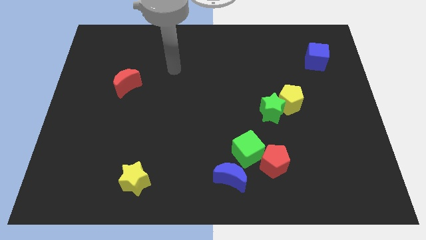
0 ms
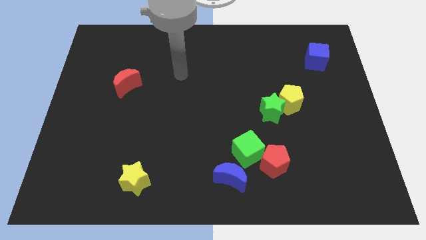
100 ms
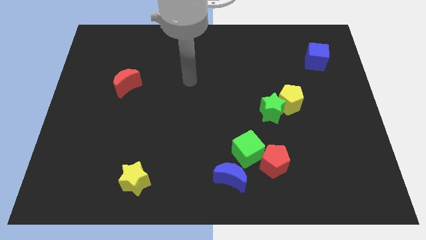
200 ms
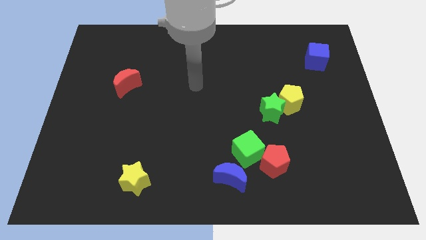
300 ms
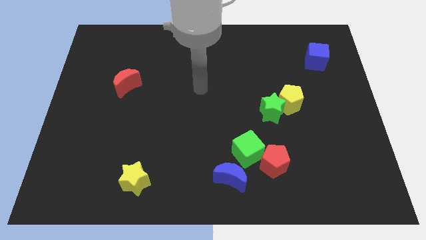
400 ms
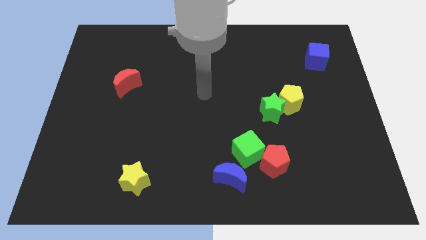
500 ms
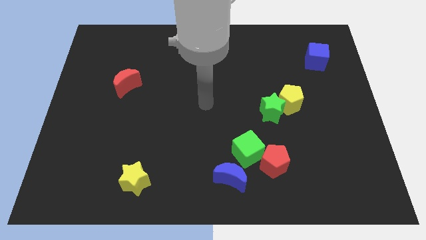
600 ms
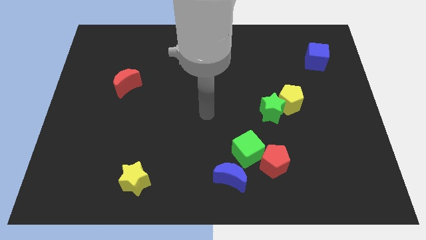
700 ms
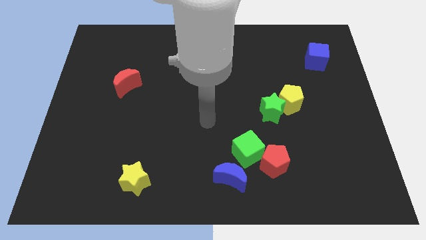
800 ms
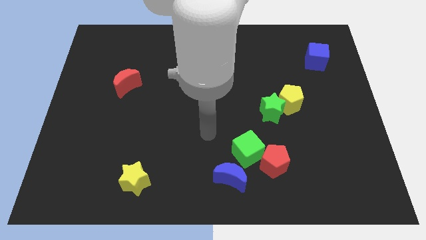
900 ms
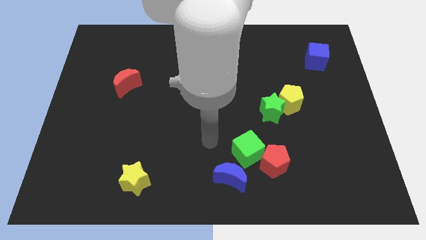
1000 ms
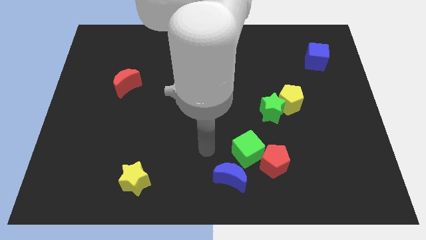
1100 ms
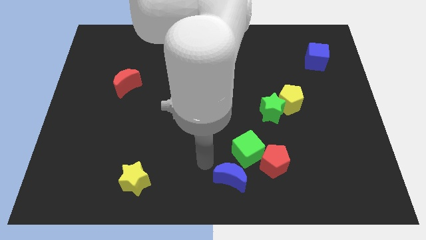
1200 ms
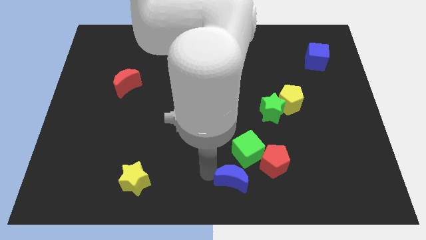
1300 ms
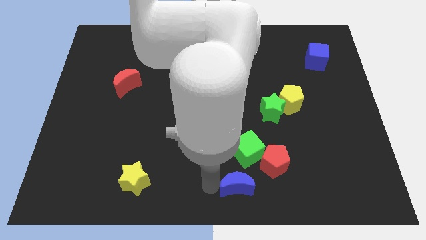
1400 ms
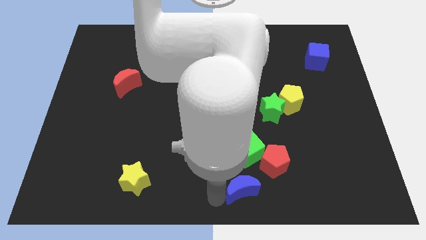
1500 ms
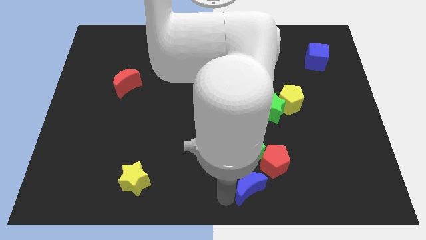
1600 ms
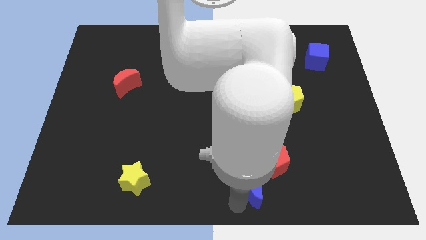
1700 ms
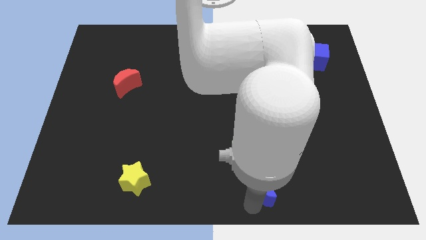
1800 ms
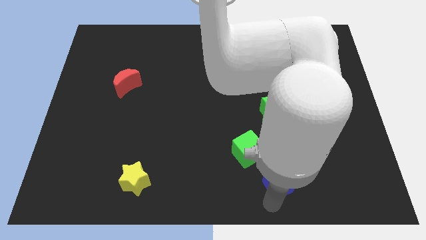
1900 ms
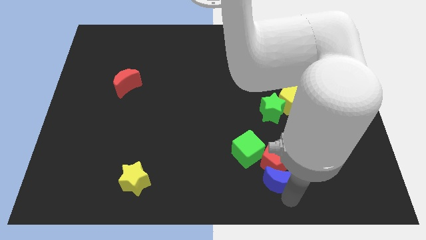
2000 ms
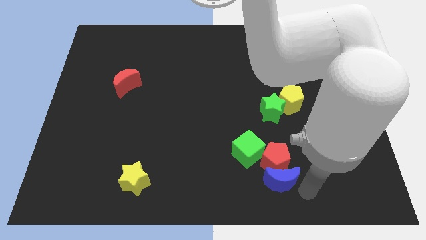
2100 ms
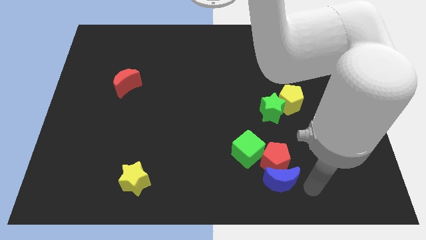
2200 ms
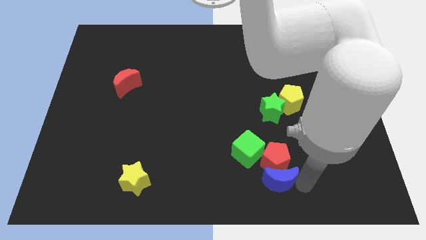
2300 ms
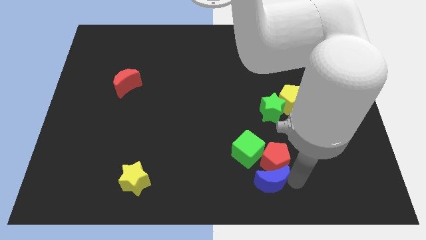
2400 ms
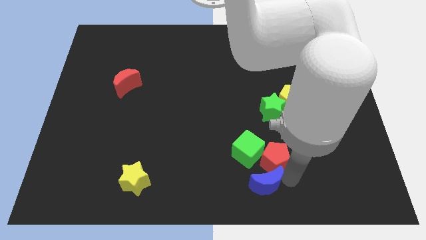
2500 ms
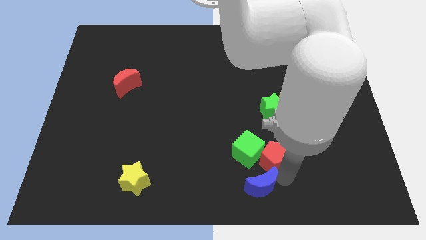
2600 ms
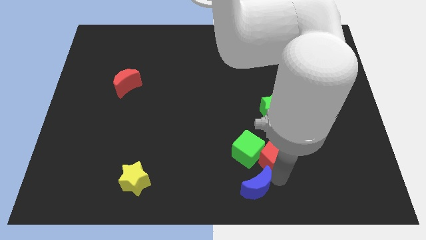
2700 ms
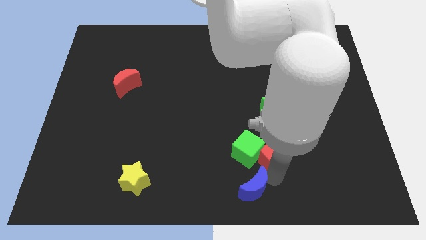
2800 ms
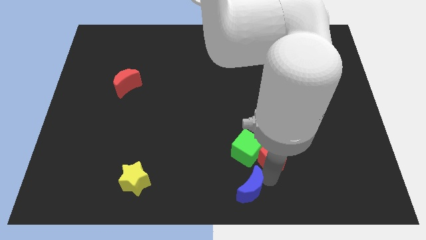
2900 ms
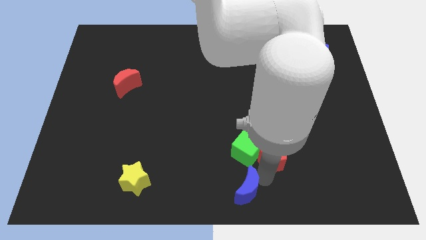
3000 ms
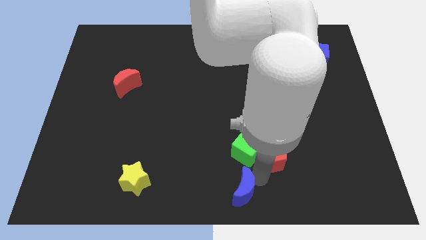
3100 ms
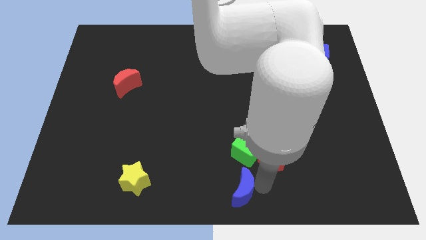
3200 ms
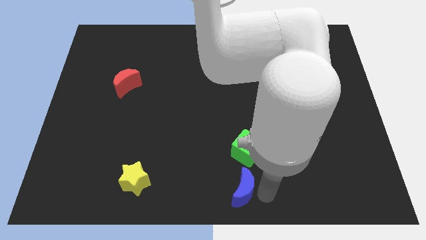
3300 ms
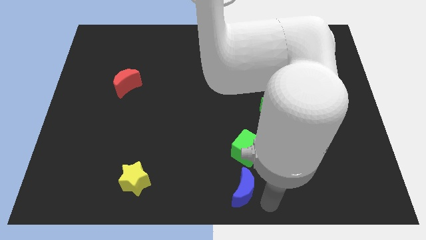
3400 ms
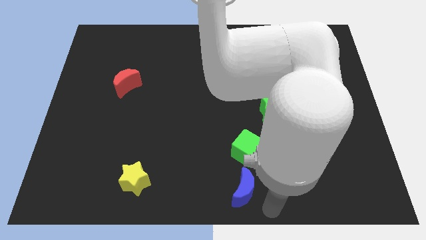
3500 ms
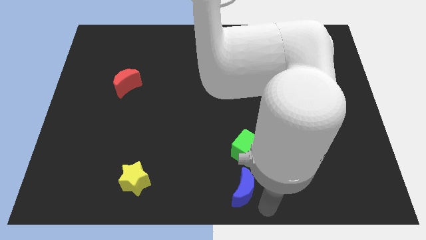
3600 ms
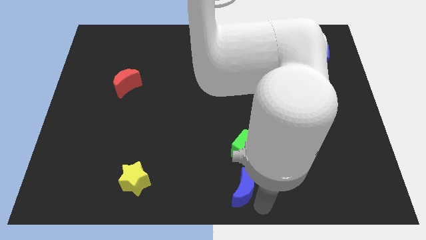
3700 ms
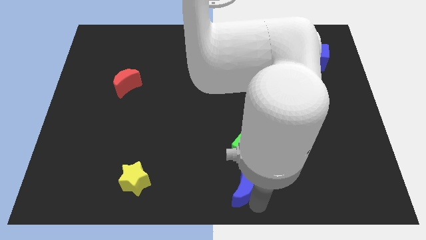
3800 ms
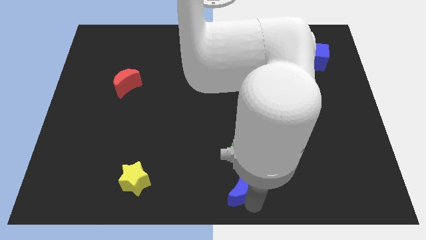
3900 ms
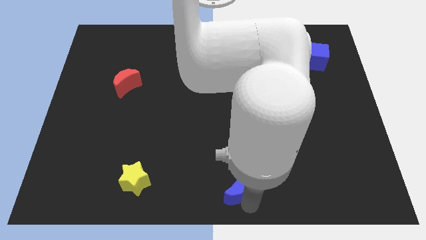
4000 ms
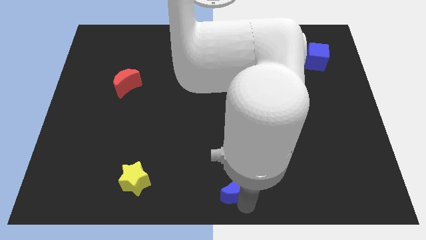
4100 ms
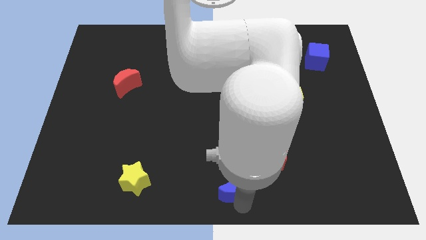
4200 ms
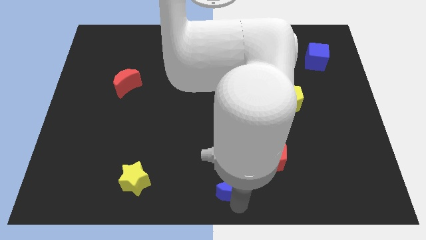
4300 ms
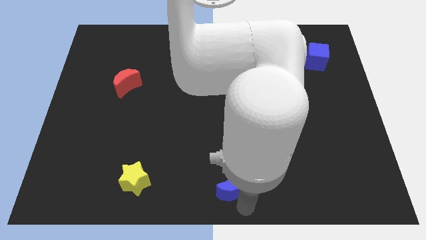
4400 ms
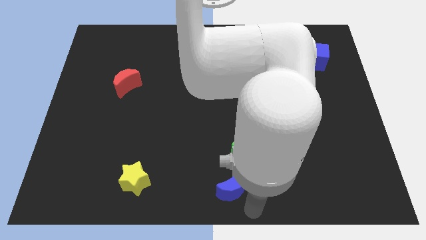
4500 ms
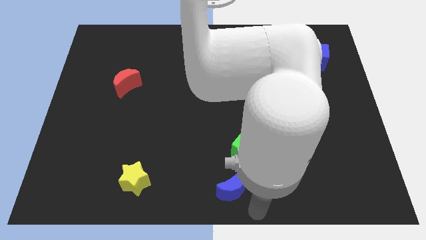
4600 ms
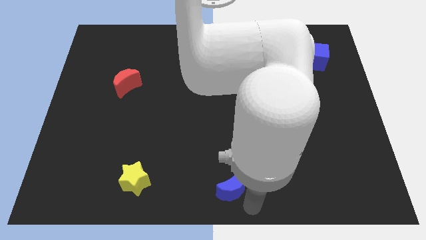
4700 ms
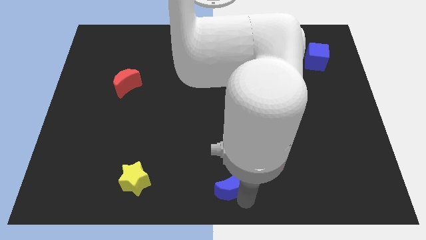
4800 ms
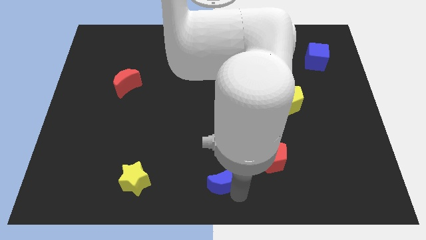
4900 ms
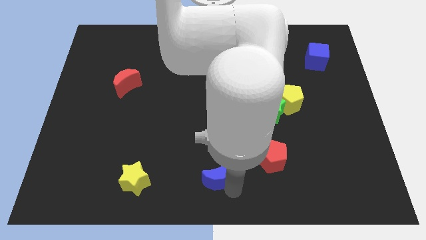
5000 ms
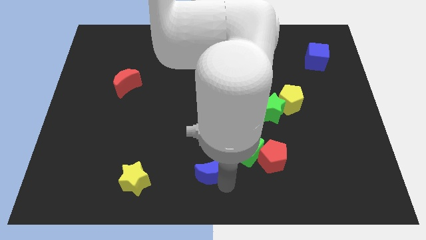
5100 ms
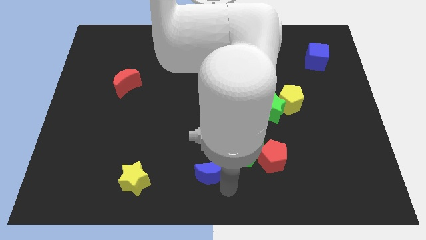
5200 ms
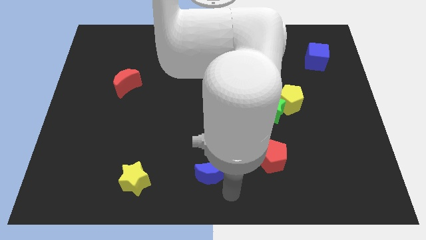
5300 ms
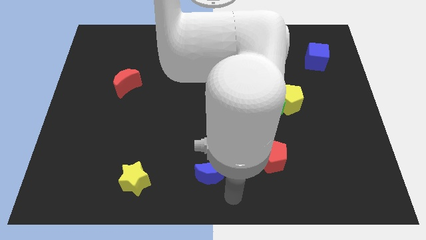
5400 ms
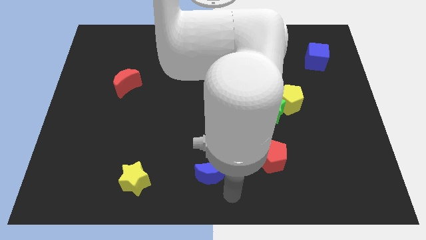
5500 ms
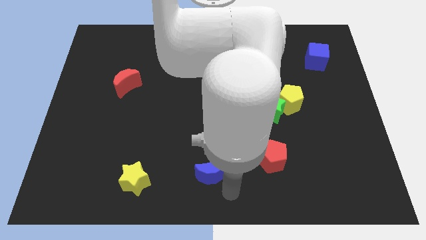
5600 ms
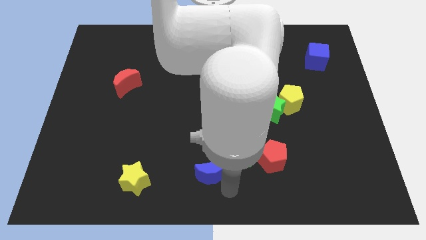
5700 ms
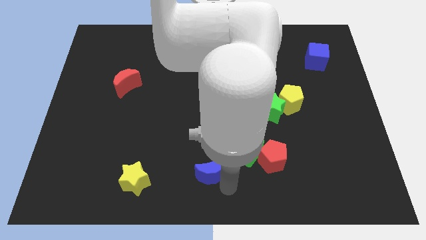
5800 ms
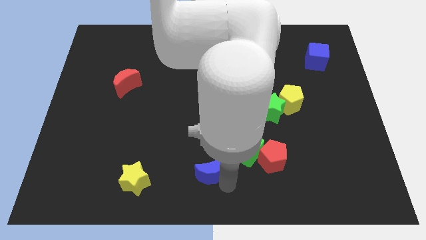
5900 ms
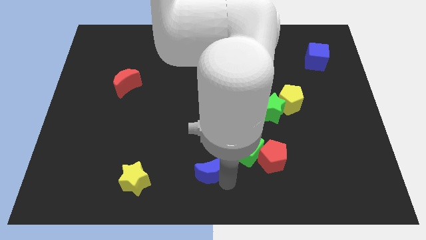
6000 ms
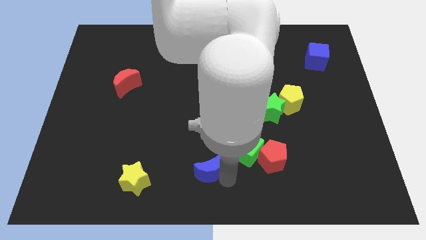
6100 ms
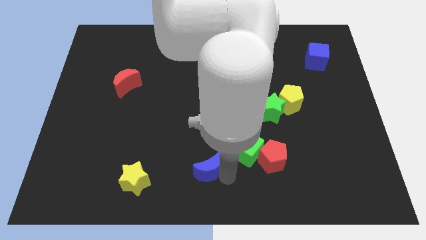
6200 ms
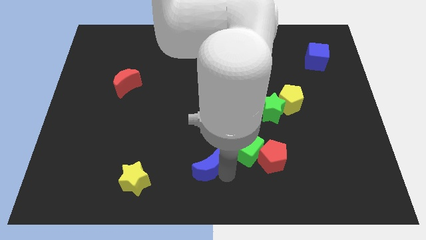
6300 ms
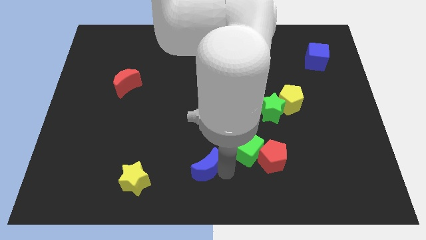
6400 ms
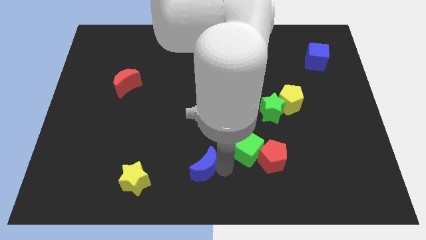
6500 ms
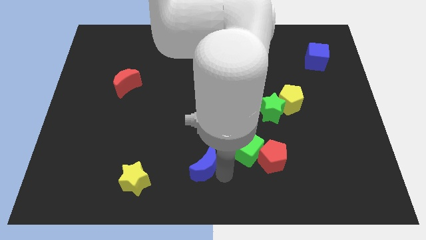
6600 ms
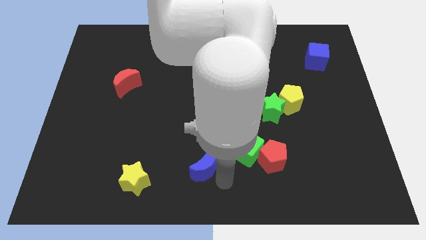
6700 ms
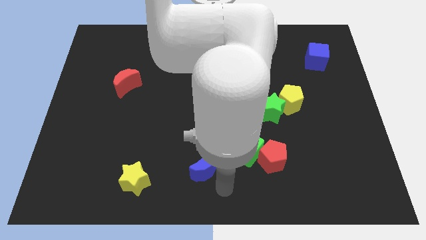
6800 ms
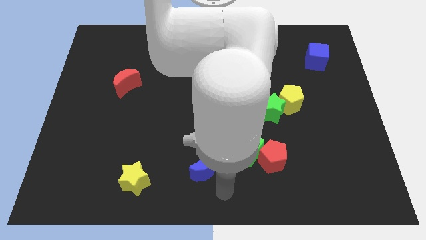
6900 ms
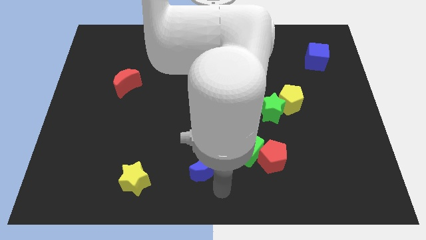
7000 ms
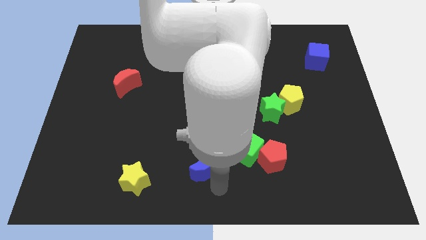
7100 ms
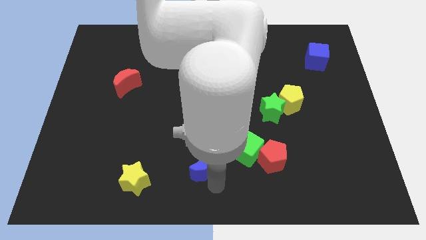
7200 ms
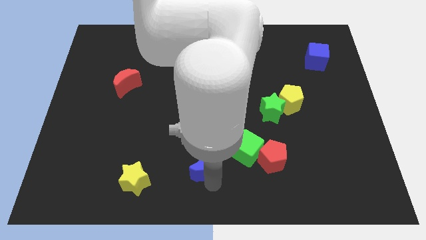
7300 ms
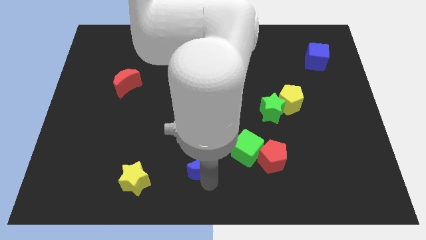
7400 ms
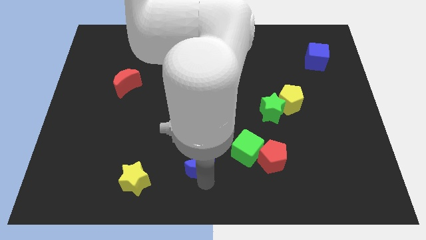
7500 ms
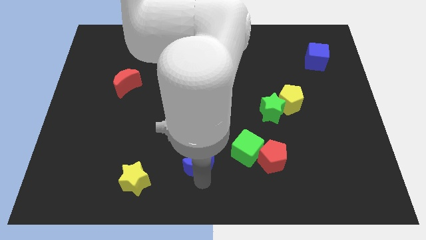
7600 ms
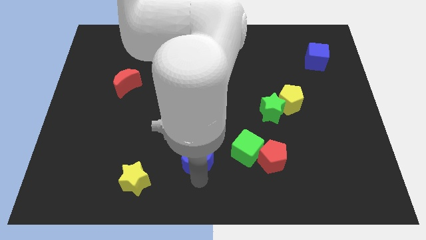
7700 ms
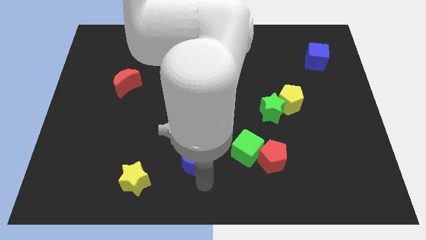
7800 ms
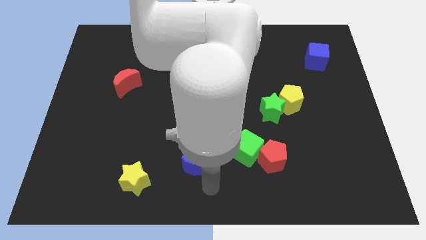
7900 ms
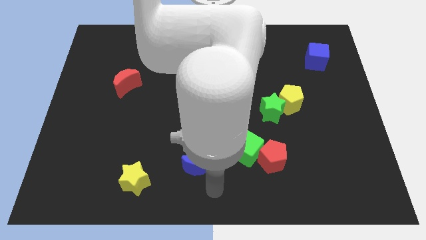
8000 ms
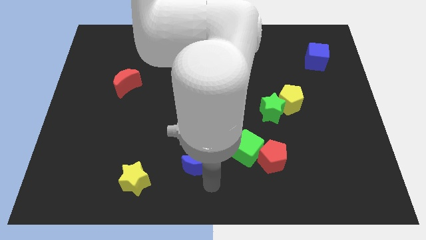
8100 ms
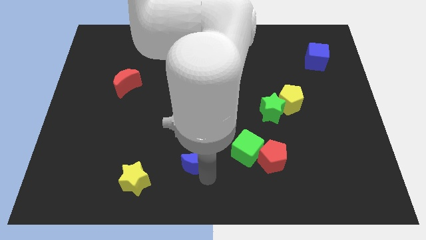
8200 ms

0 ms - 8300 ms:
move the blue moon somewhat up and to the left diagonally
